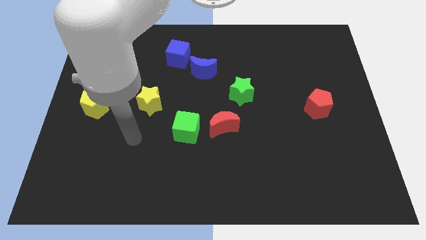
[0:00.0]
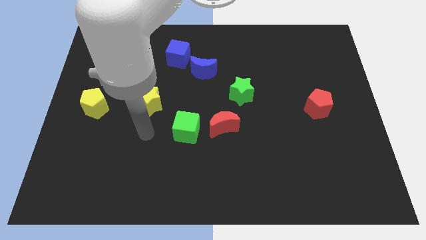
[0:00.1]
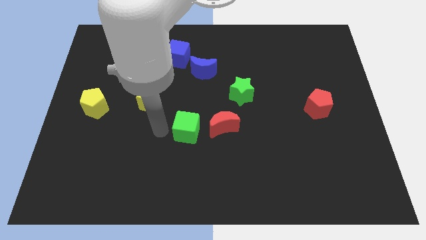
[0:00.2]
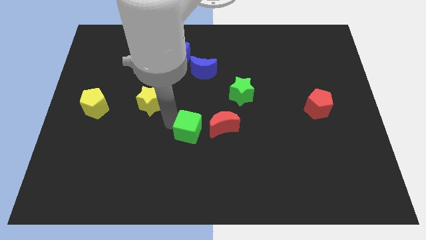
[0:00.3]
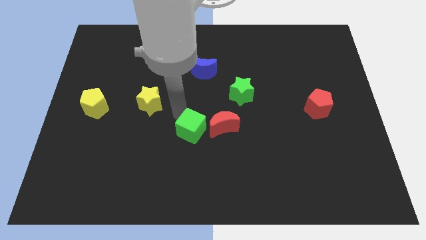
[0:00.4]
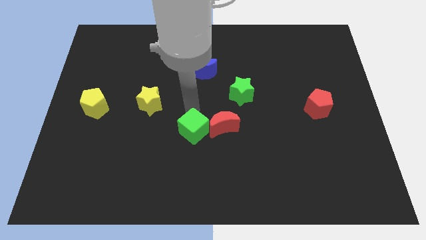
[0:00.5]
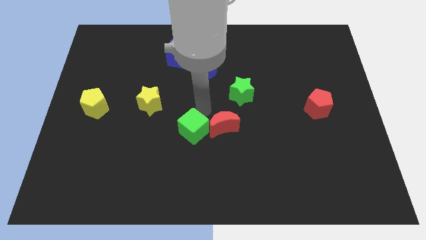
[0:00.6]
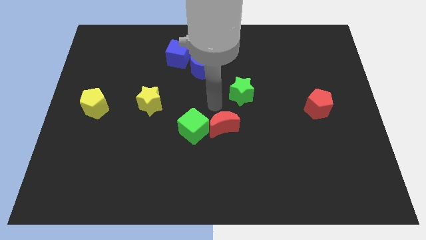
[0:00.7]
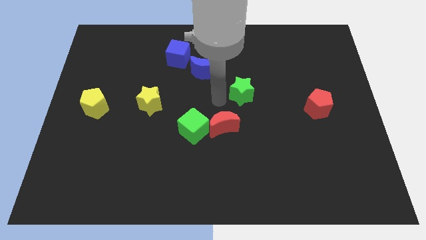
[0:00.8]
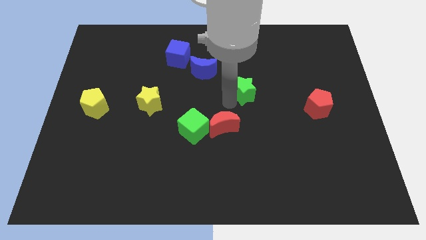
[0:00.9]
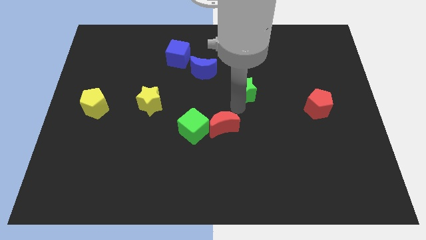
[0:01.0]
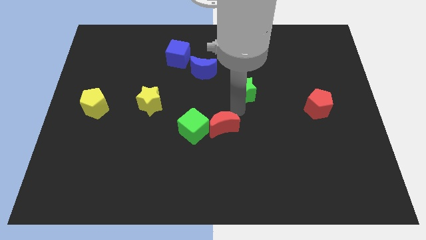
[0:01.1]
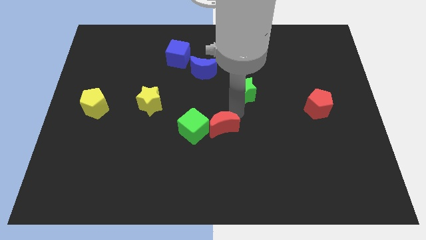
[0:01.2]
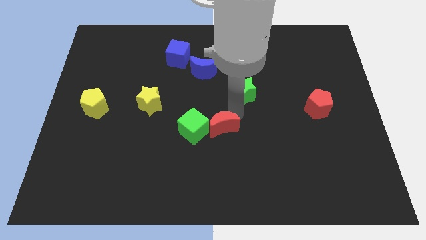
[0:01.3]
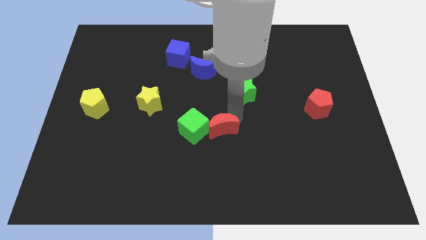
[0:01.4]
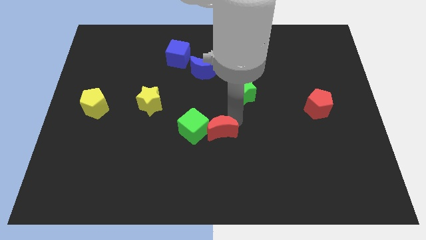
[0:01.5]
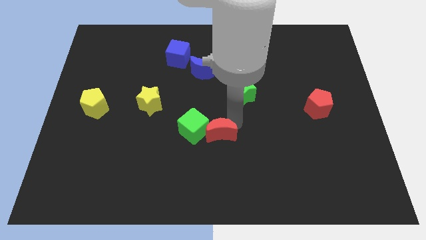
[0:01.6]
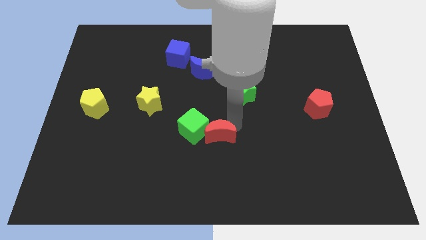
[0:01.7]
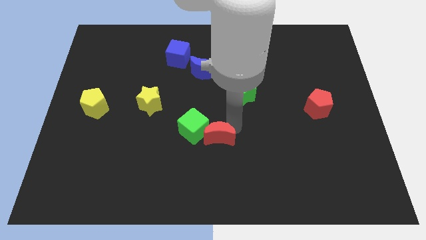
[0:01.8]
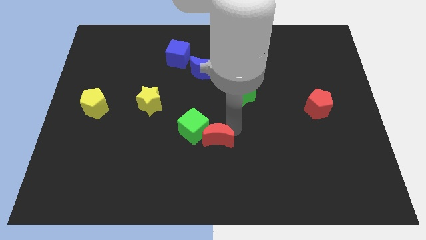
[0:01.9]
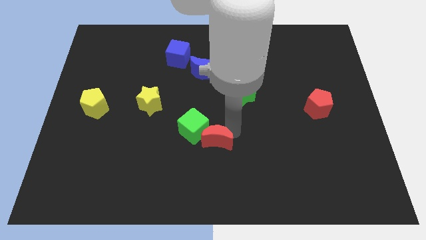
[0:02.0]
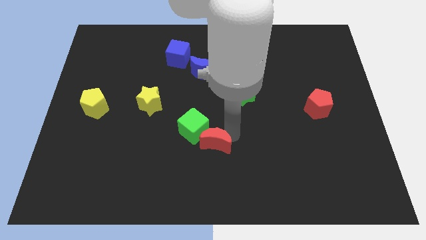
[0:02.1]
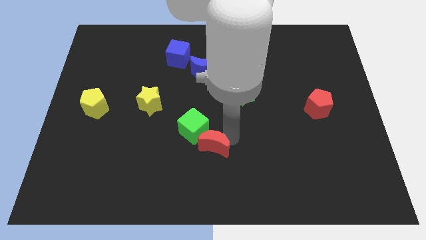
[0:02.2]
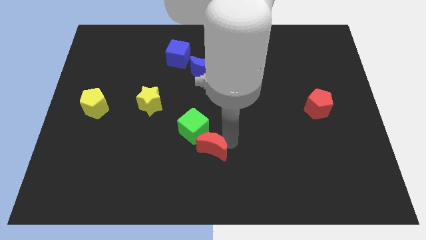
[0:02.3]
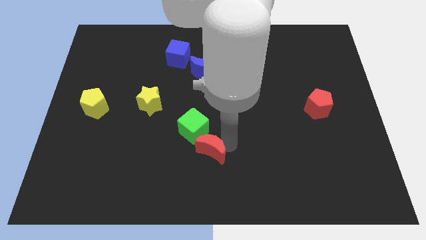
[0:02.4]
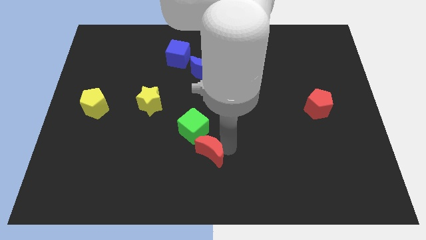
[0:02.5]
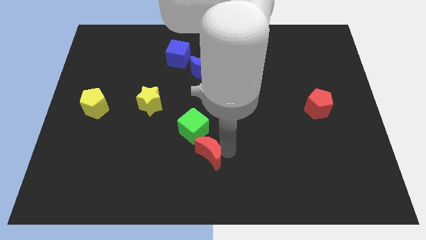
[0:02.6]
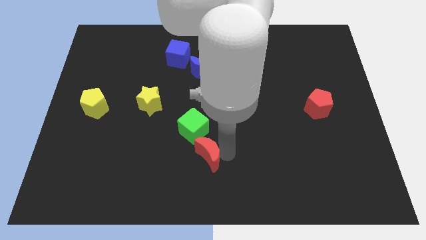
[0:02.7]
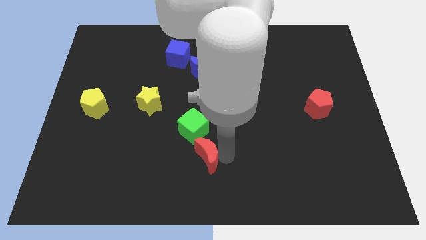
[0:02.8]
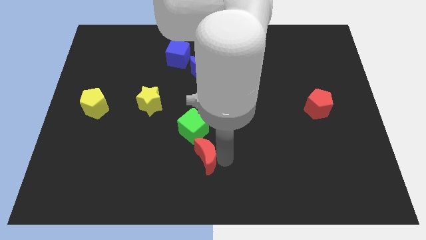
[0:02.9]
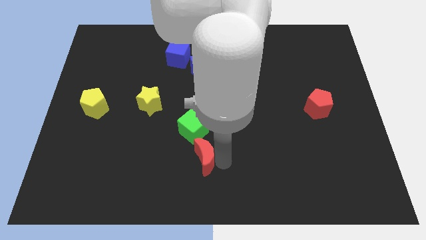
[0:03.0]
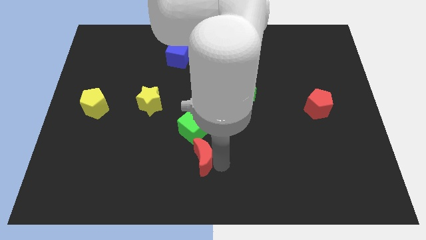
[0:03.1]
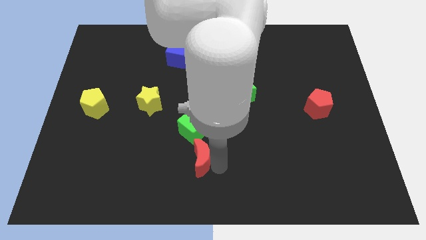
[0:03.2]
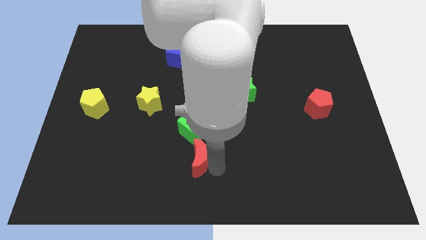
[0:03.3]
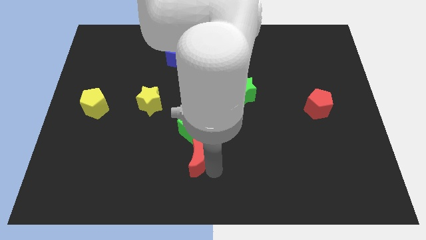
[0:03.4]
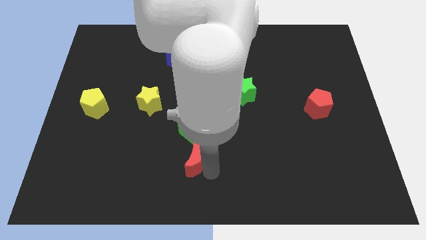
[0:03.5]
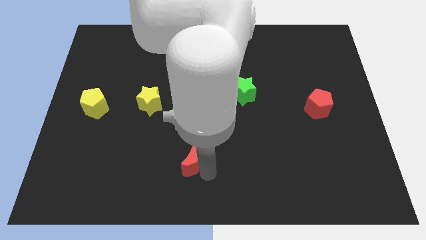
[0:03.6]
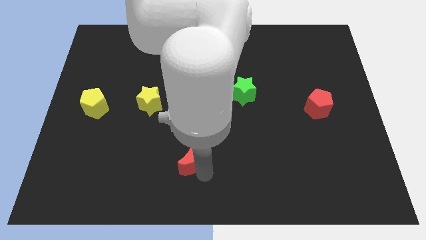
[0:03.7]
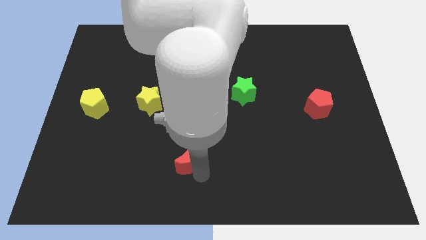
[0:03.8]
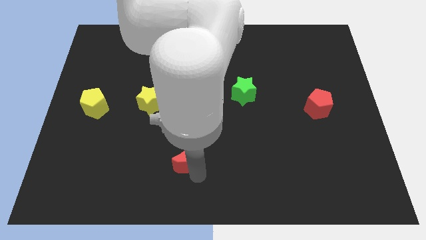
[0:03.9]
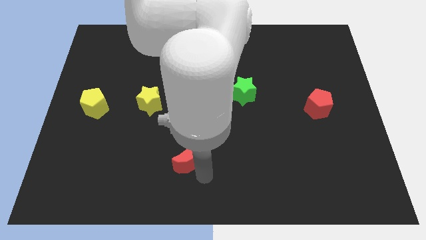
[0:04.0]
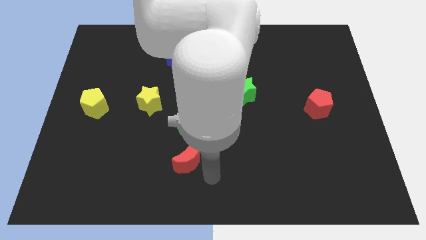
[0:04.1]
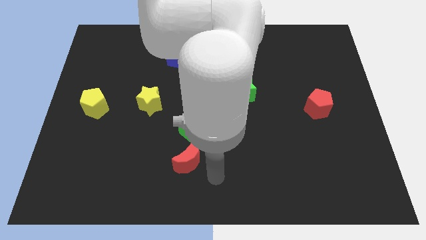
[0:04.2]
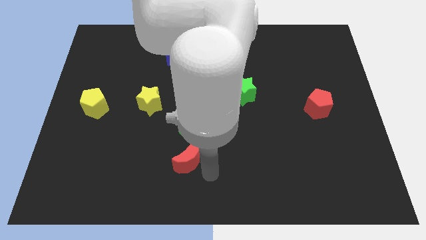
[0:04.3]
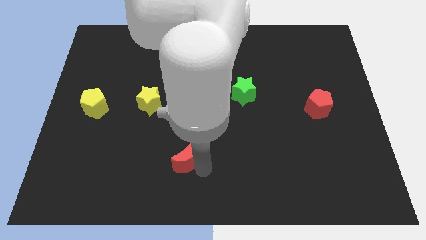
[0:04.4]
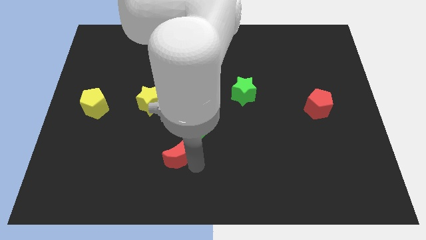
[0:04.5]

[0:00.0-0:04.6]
push the red moon to the bottom left side of the green cube

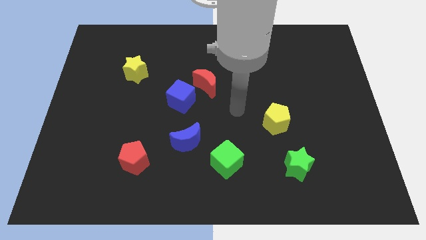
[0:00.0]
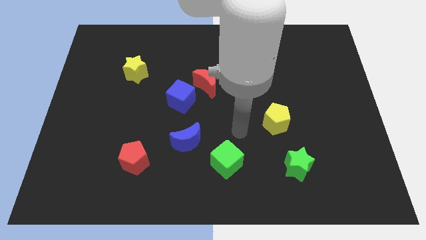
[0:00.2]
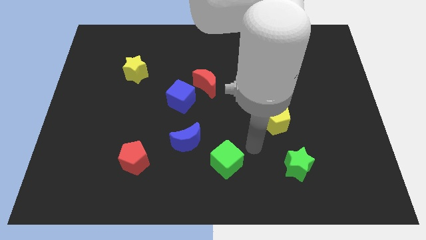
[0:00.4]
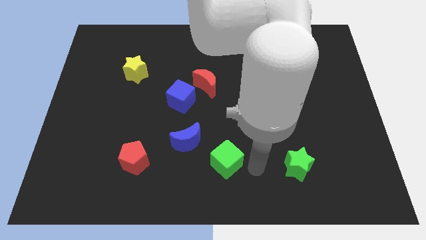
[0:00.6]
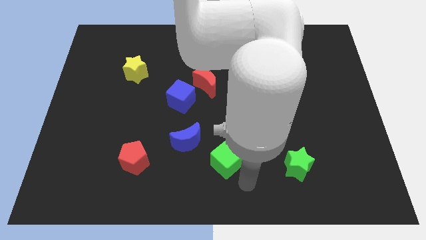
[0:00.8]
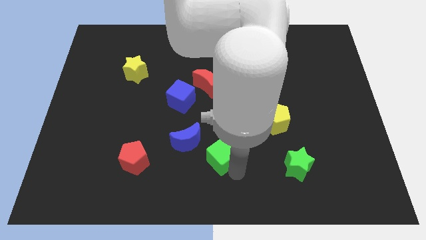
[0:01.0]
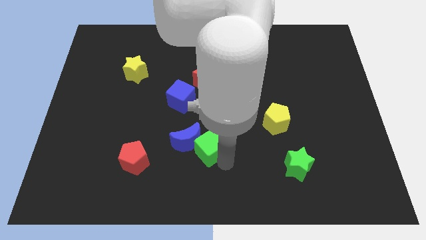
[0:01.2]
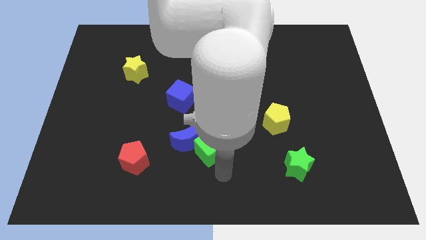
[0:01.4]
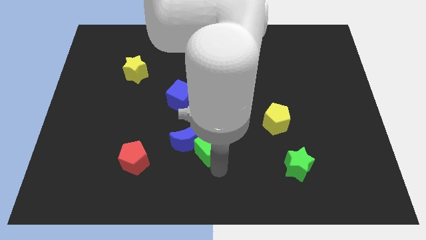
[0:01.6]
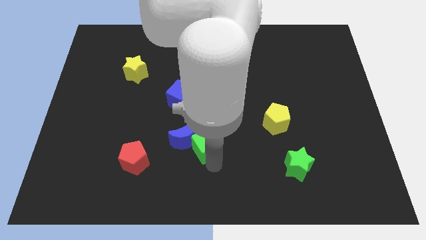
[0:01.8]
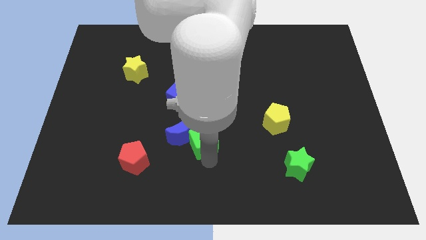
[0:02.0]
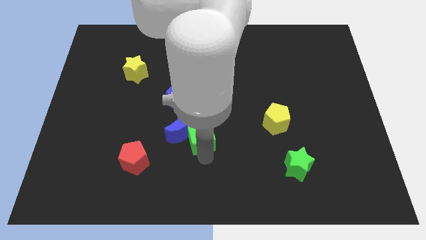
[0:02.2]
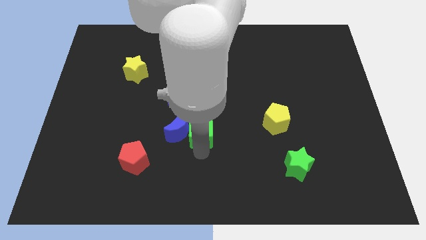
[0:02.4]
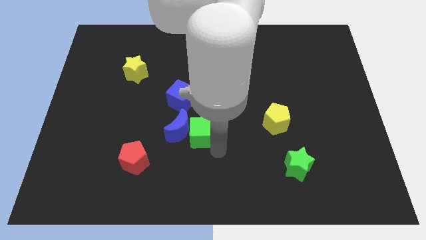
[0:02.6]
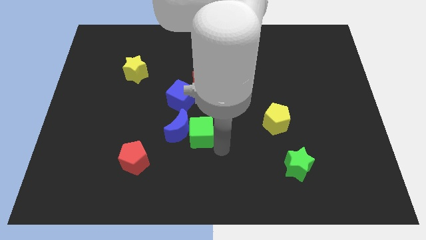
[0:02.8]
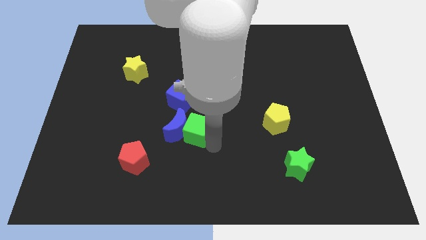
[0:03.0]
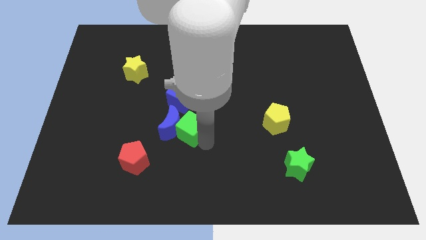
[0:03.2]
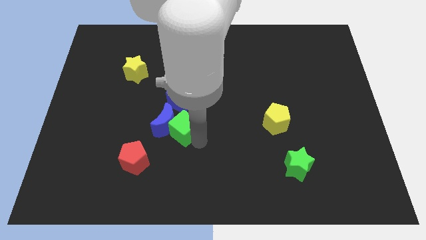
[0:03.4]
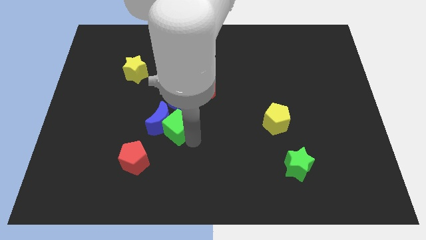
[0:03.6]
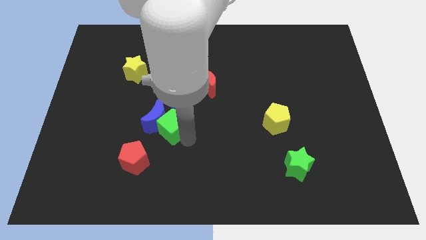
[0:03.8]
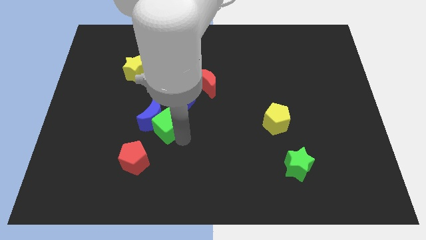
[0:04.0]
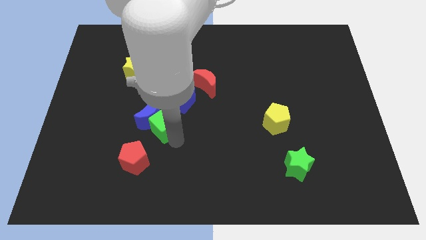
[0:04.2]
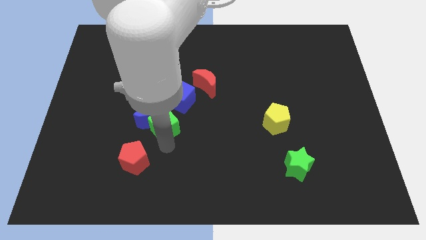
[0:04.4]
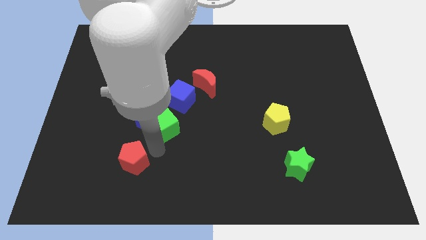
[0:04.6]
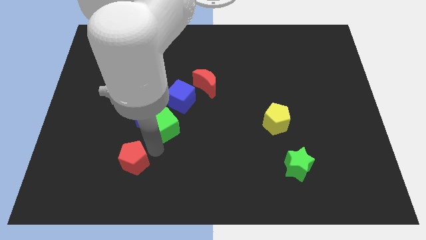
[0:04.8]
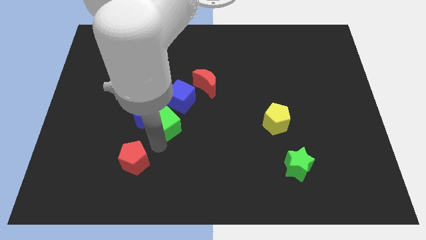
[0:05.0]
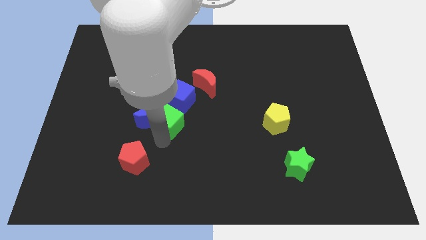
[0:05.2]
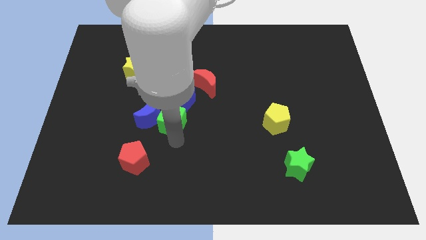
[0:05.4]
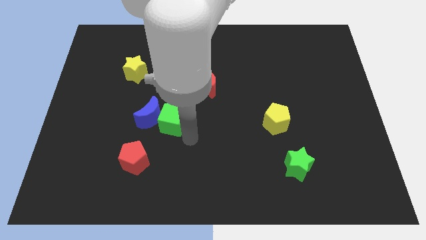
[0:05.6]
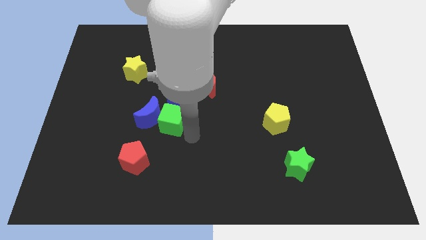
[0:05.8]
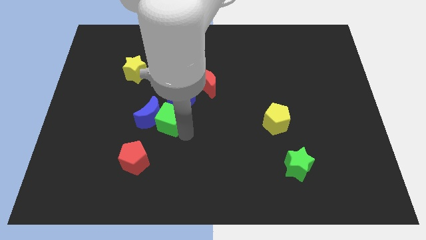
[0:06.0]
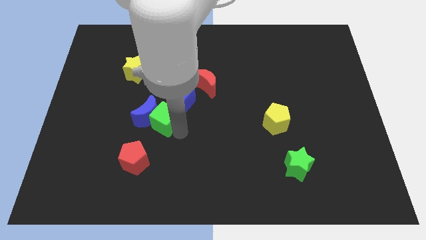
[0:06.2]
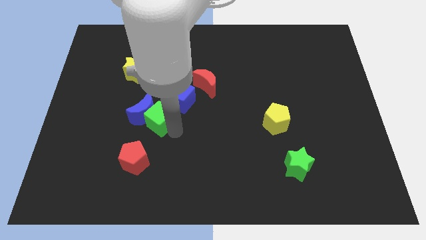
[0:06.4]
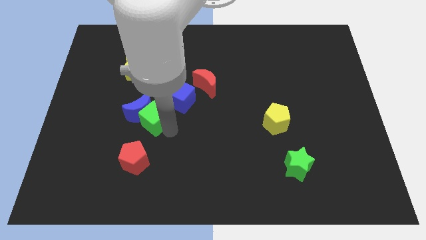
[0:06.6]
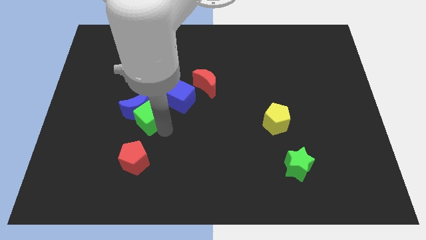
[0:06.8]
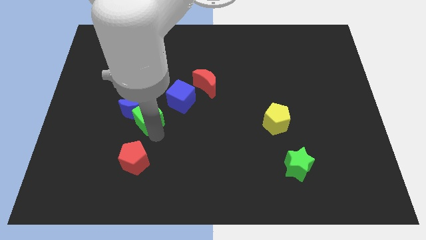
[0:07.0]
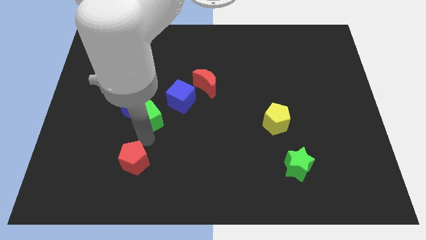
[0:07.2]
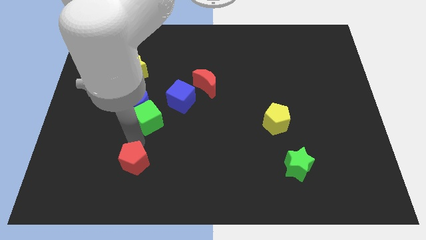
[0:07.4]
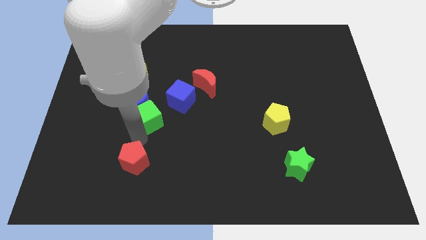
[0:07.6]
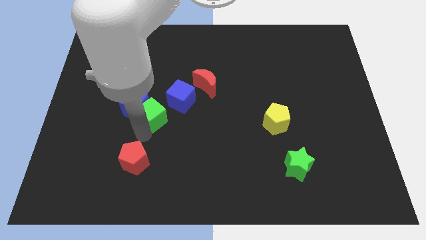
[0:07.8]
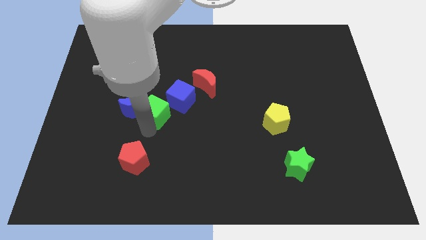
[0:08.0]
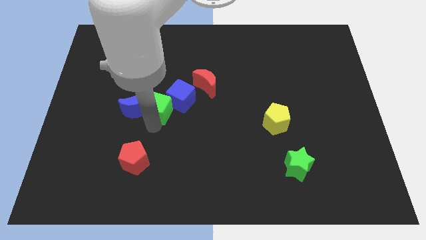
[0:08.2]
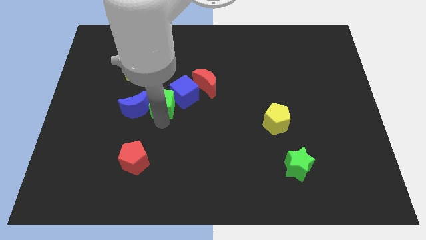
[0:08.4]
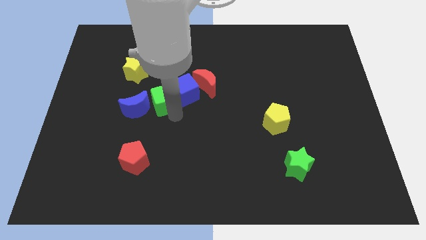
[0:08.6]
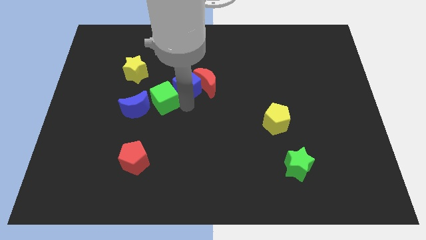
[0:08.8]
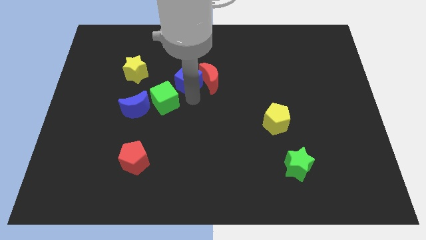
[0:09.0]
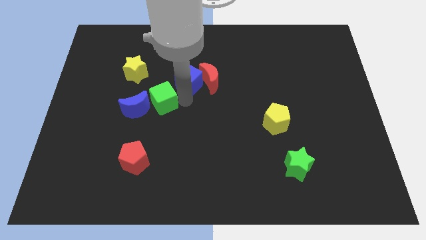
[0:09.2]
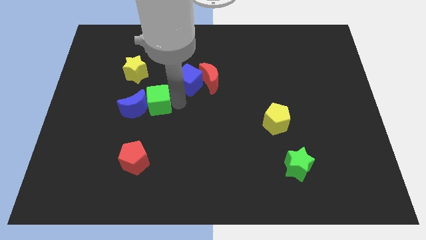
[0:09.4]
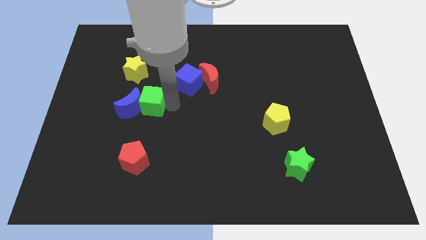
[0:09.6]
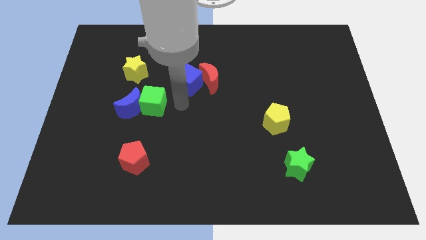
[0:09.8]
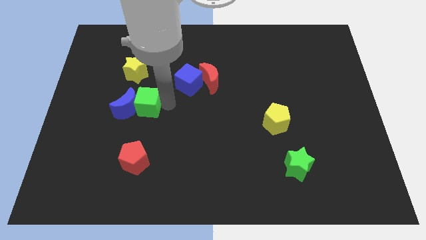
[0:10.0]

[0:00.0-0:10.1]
move the green cube below the yellow star
